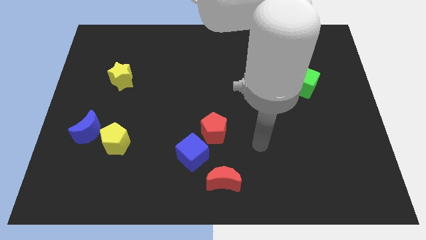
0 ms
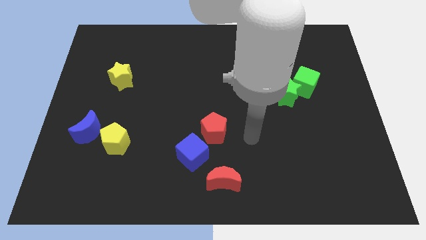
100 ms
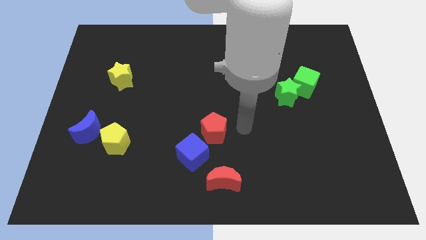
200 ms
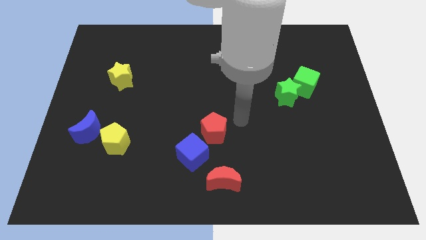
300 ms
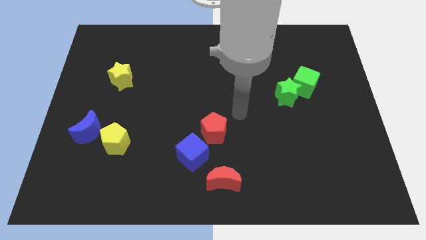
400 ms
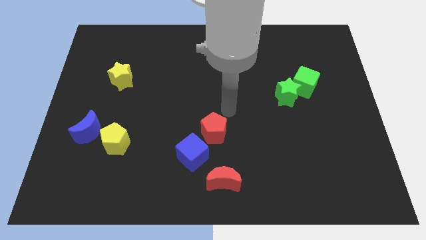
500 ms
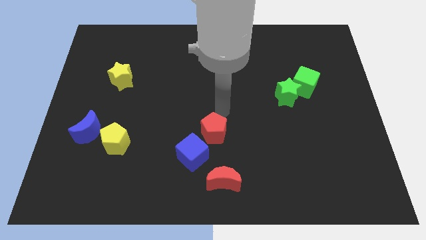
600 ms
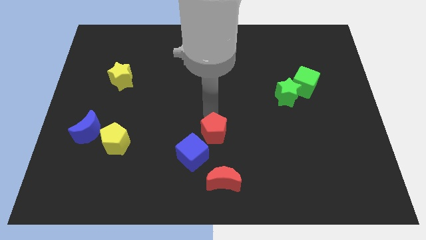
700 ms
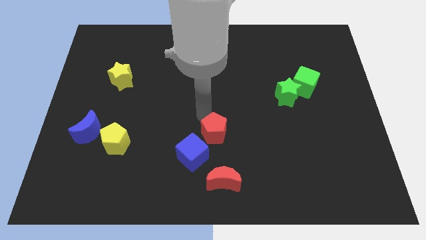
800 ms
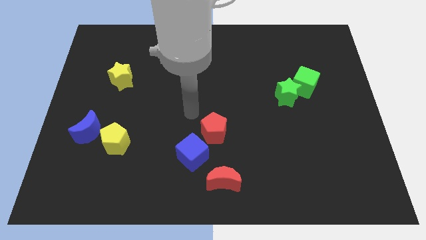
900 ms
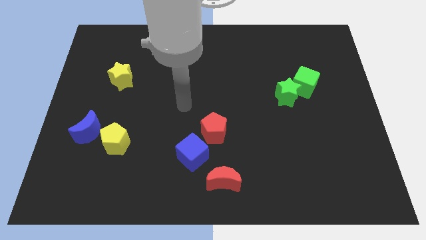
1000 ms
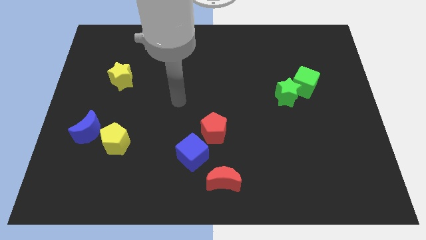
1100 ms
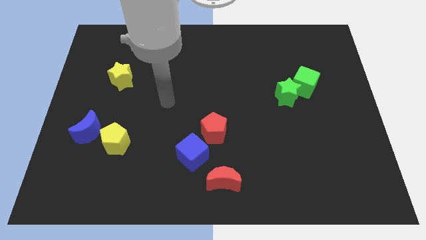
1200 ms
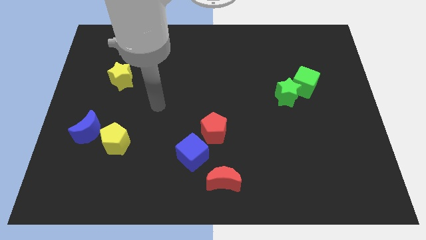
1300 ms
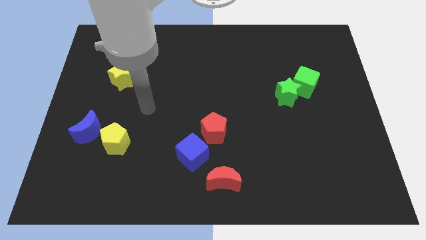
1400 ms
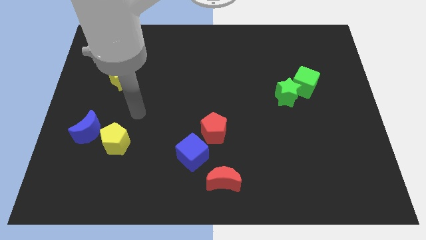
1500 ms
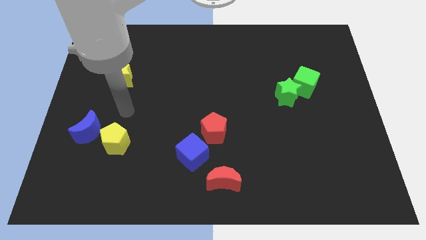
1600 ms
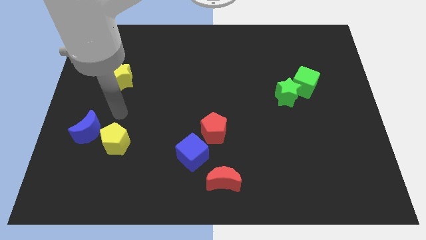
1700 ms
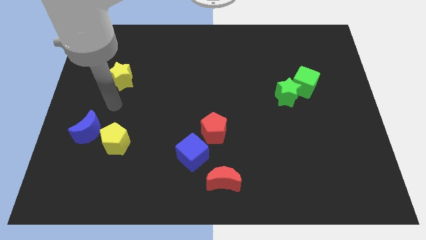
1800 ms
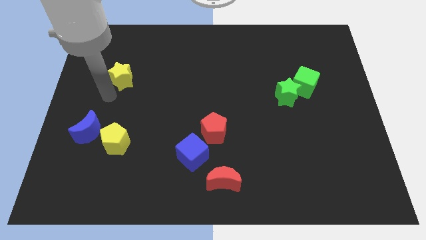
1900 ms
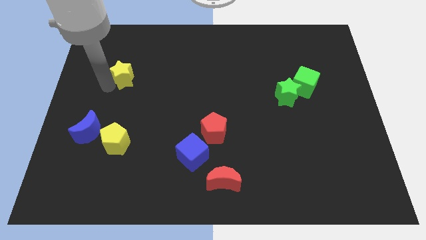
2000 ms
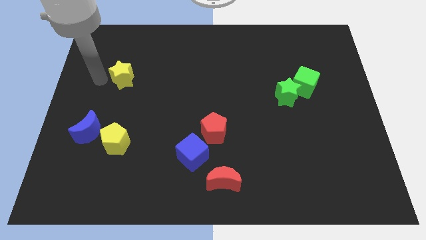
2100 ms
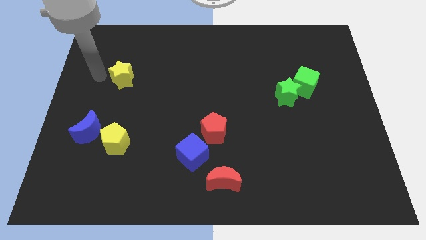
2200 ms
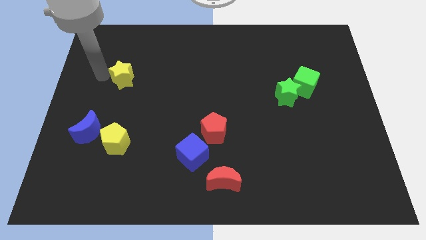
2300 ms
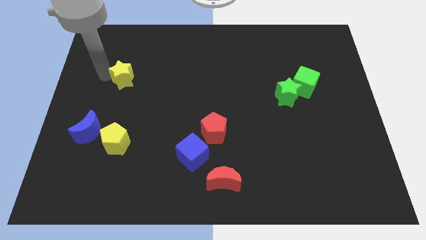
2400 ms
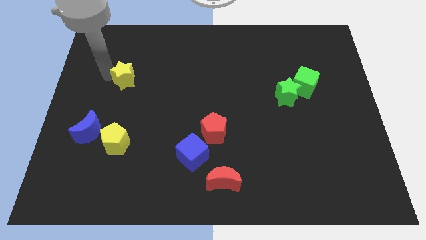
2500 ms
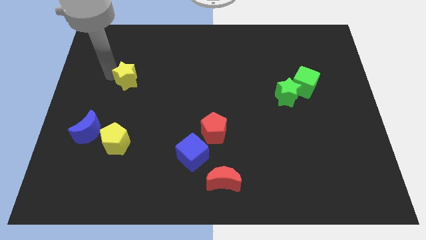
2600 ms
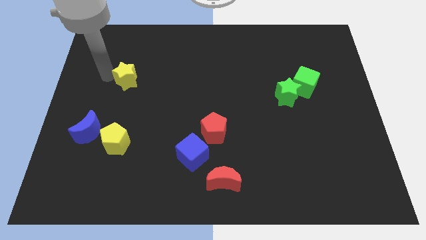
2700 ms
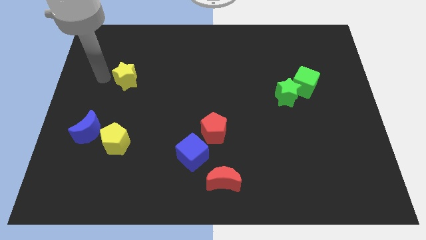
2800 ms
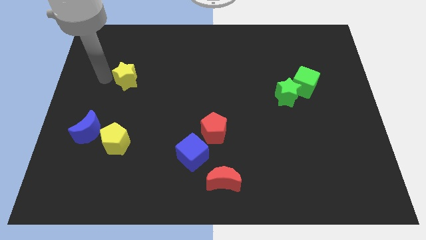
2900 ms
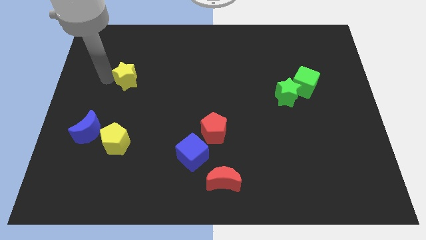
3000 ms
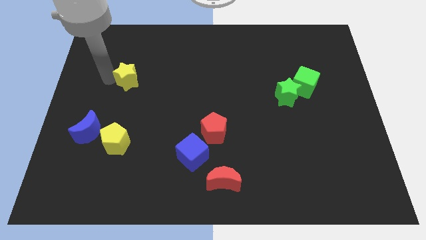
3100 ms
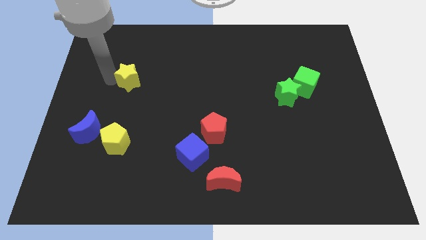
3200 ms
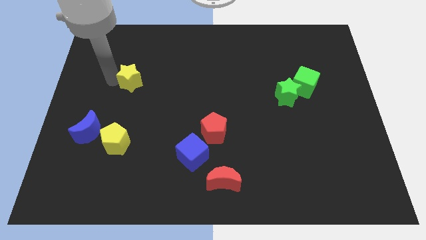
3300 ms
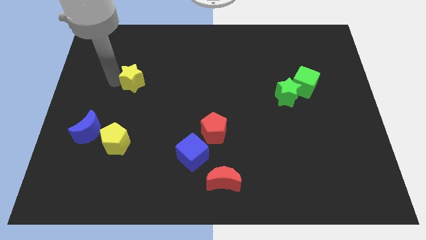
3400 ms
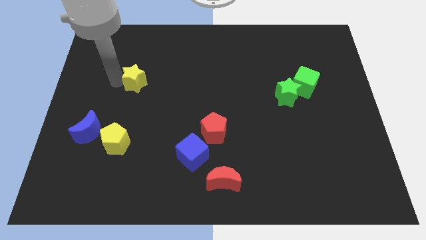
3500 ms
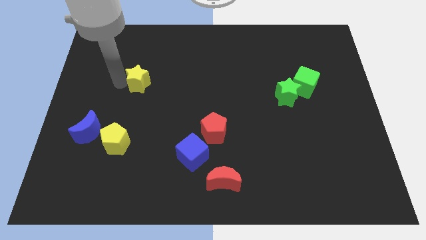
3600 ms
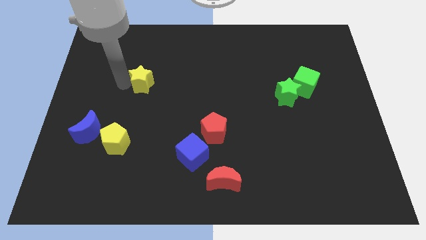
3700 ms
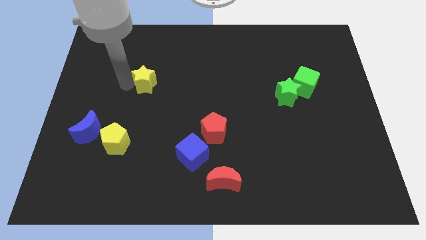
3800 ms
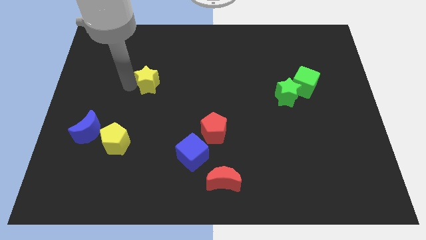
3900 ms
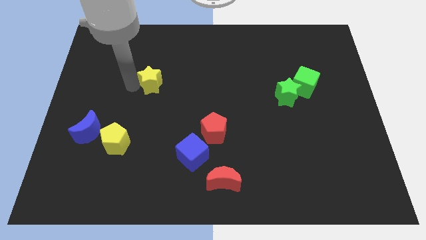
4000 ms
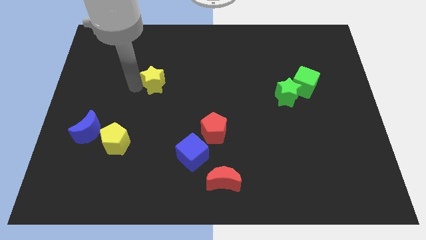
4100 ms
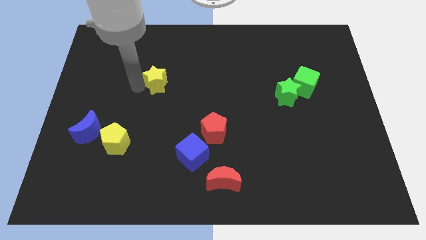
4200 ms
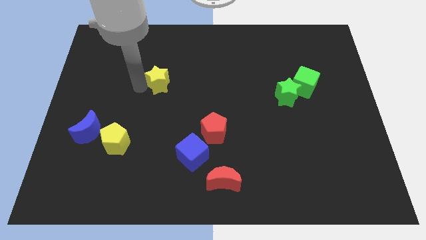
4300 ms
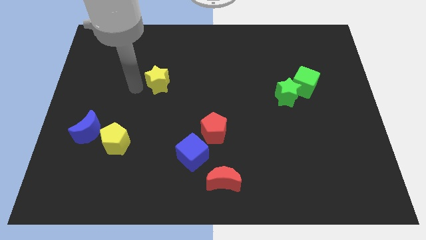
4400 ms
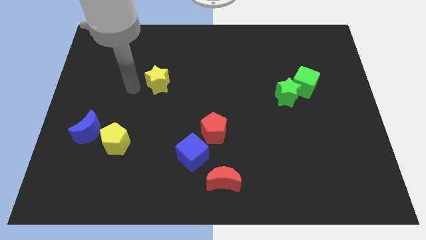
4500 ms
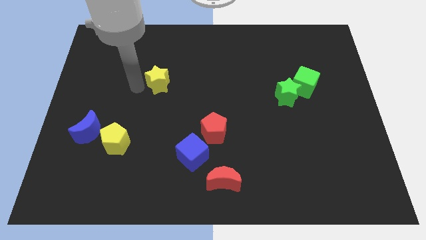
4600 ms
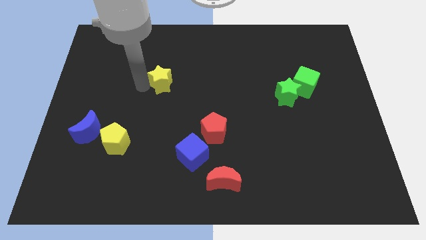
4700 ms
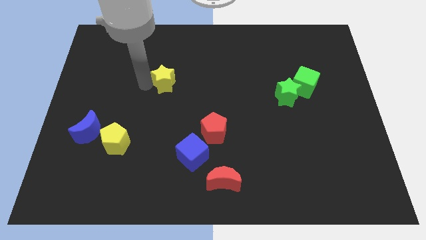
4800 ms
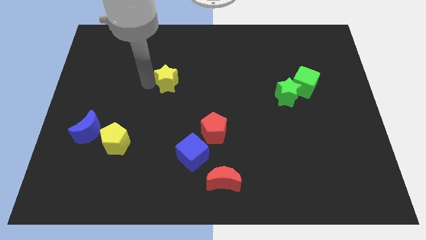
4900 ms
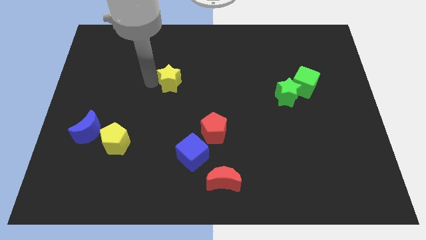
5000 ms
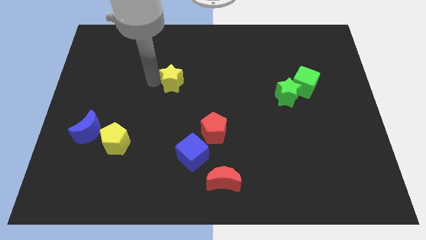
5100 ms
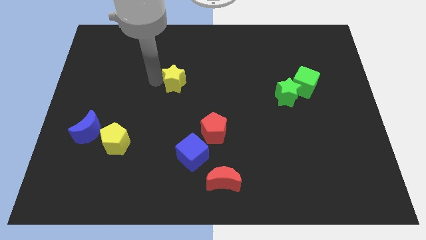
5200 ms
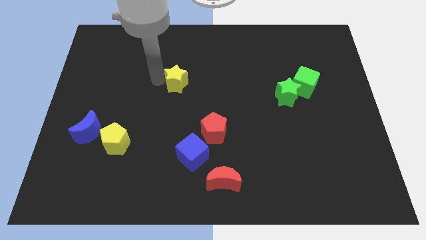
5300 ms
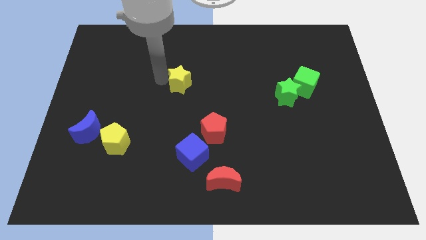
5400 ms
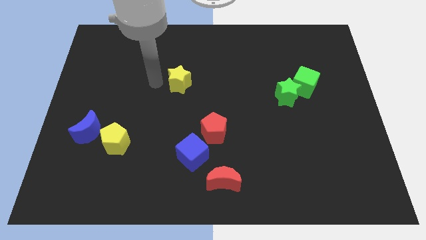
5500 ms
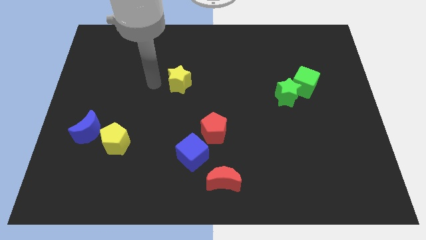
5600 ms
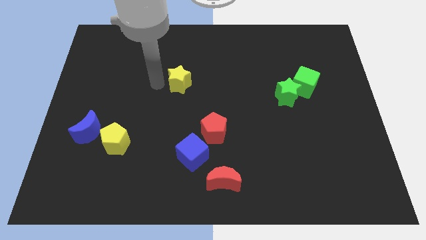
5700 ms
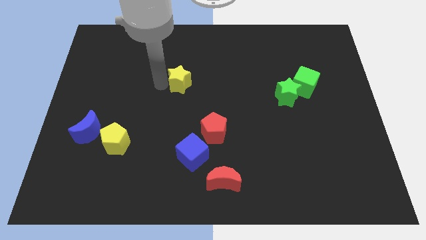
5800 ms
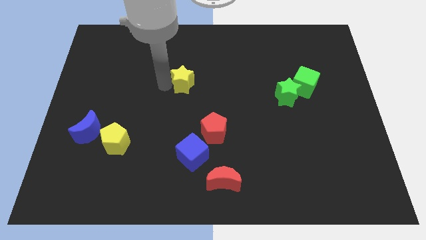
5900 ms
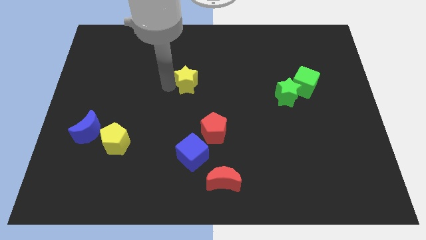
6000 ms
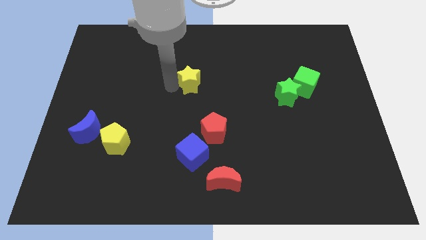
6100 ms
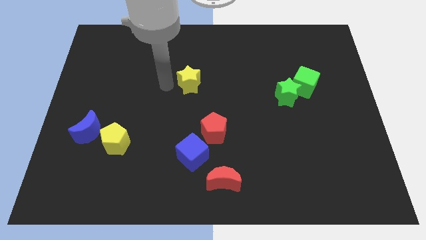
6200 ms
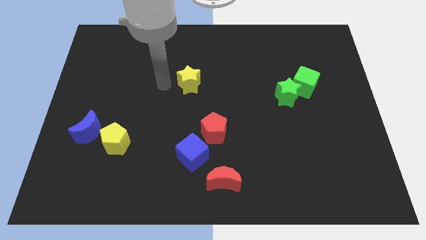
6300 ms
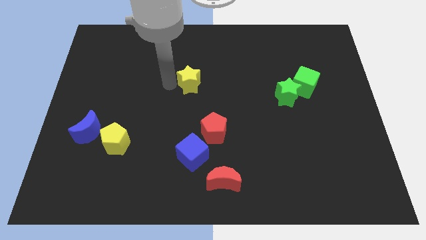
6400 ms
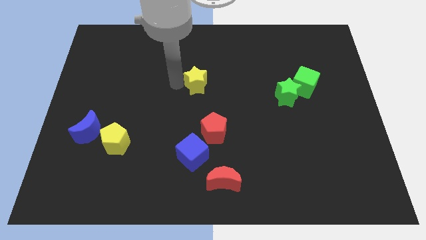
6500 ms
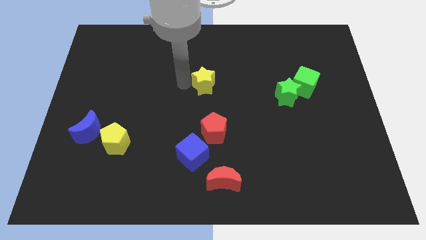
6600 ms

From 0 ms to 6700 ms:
slide the yellow star to the right

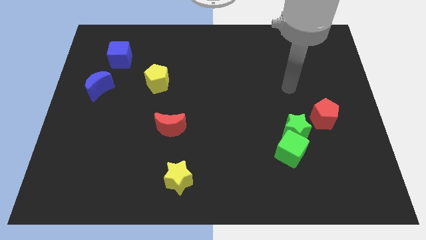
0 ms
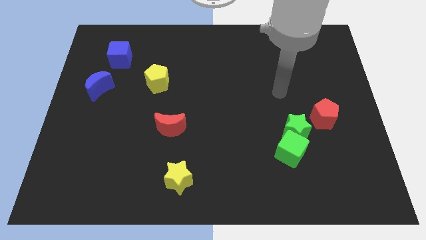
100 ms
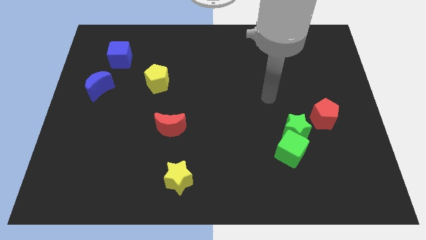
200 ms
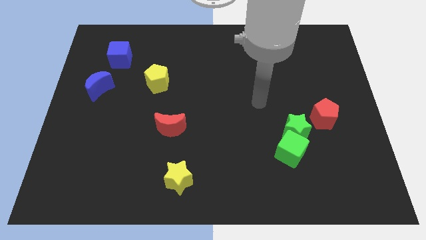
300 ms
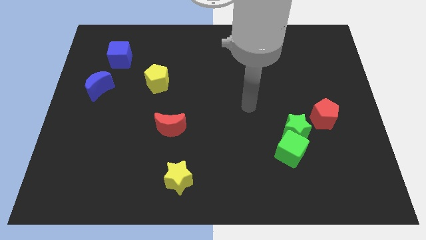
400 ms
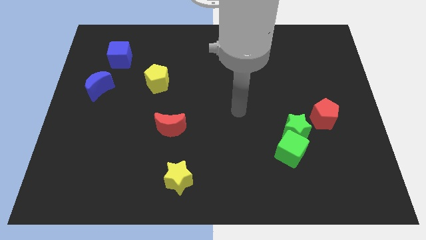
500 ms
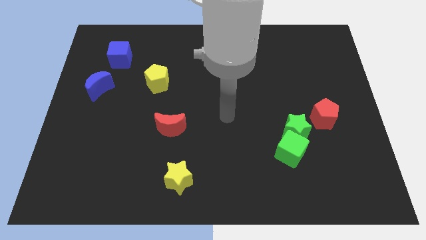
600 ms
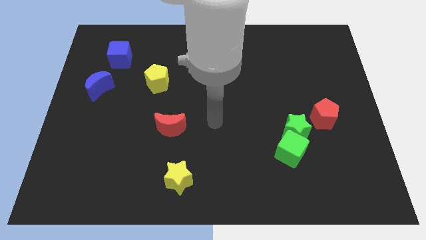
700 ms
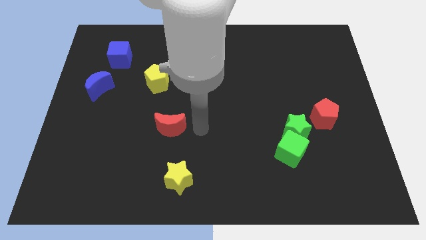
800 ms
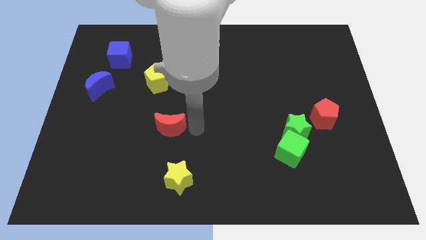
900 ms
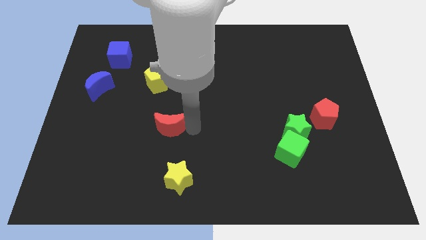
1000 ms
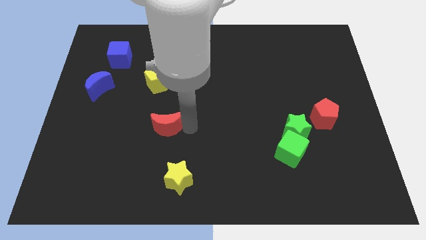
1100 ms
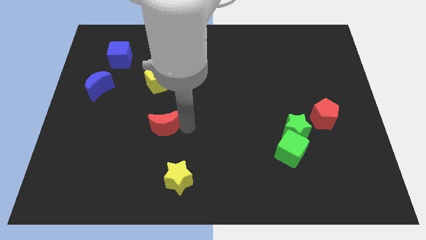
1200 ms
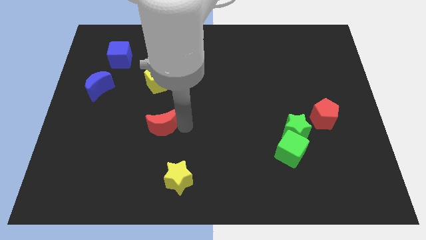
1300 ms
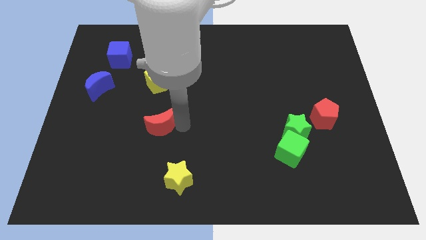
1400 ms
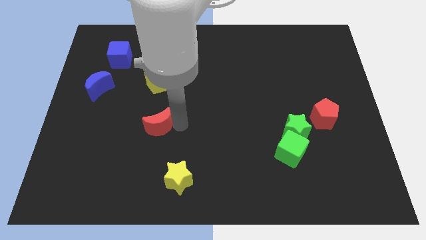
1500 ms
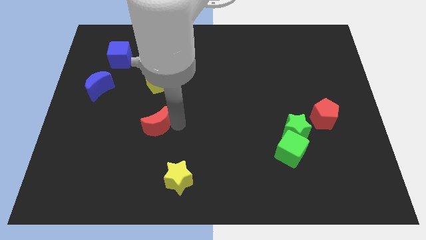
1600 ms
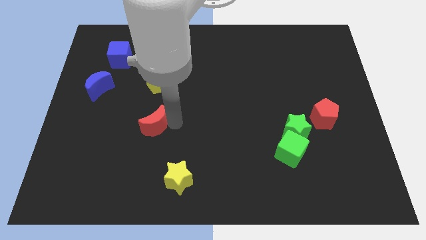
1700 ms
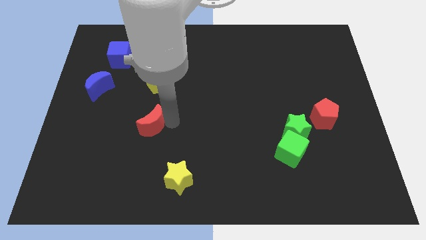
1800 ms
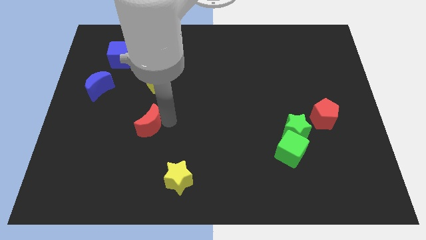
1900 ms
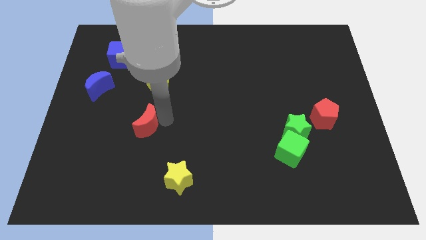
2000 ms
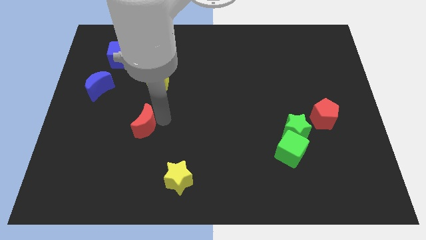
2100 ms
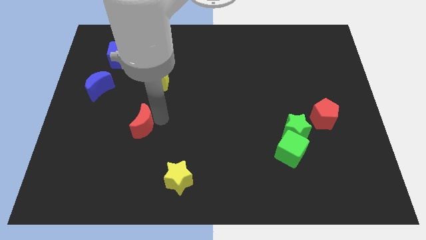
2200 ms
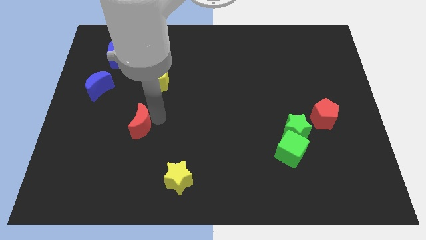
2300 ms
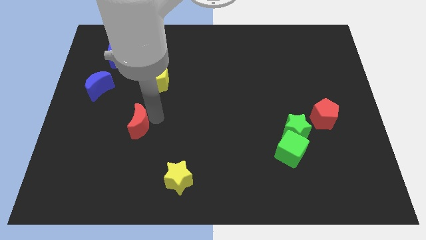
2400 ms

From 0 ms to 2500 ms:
slightly move the red moon to the left
